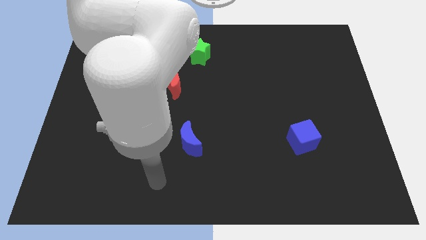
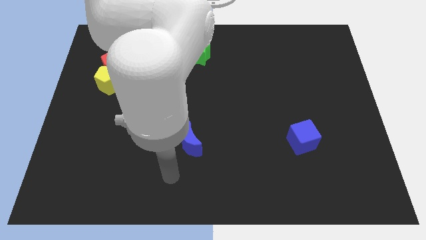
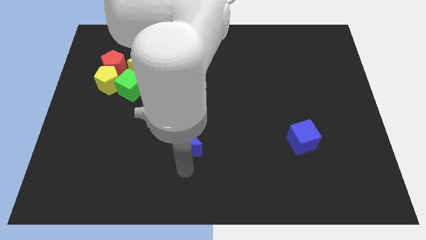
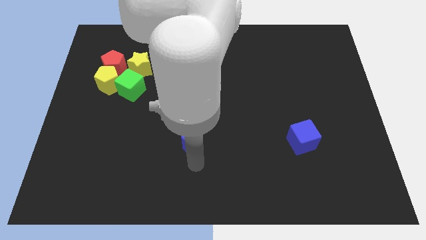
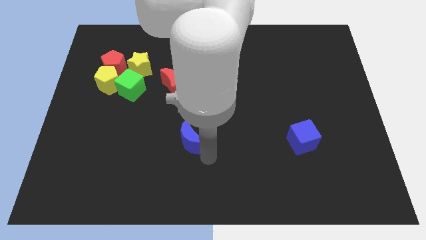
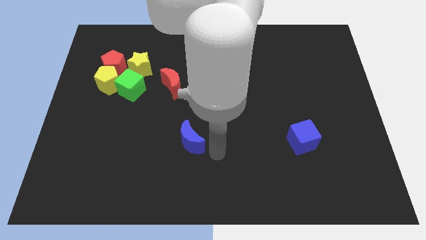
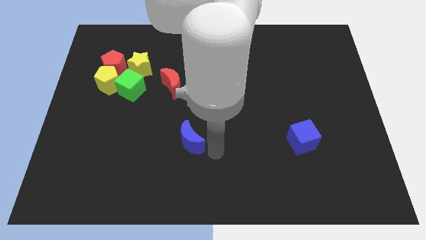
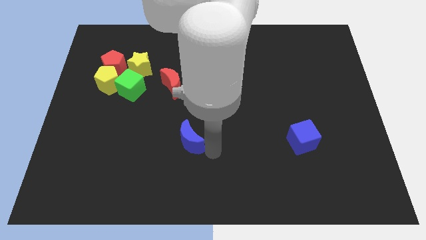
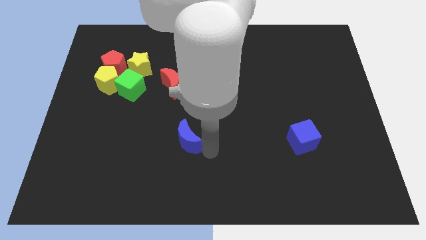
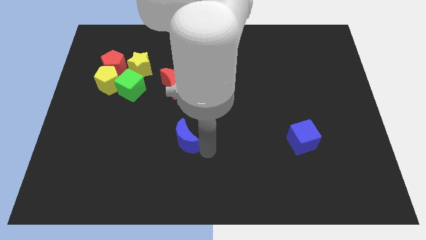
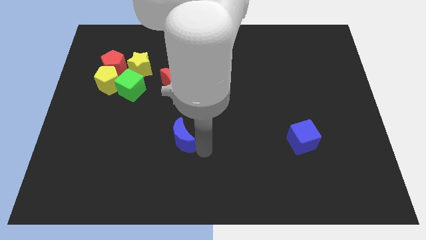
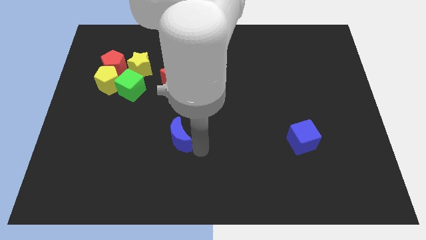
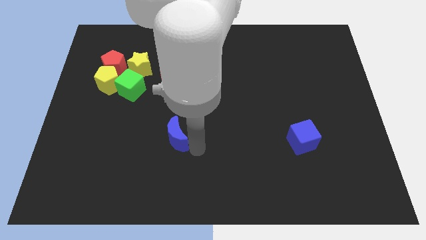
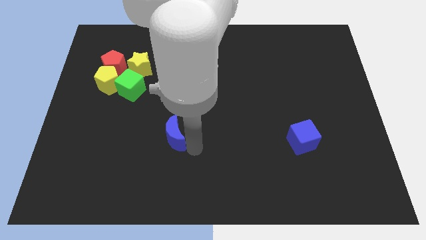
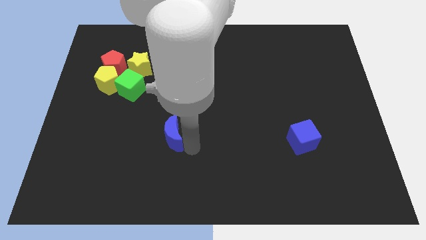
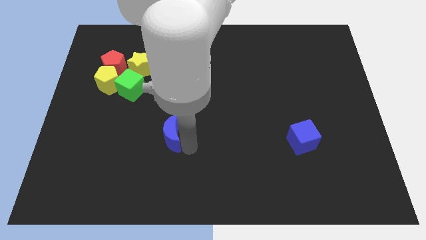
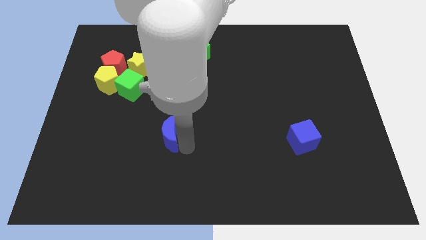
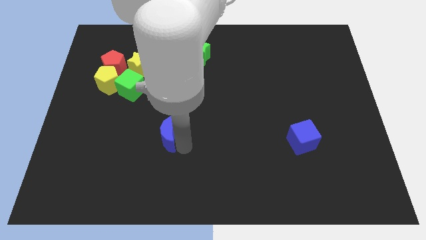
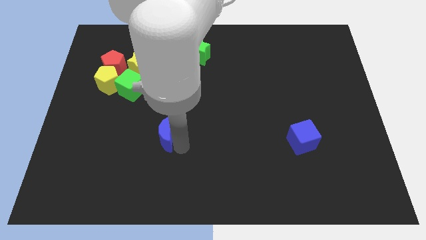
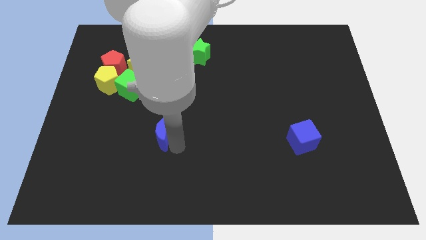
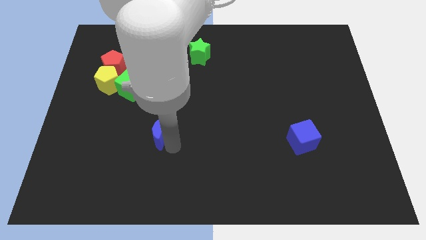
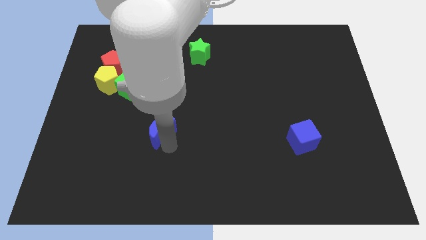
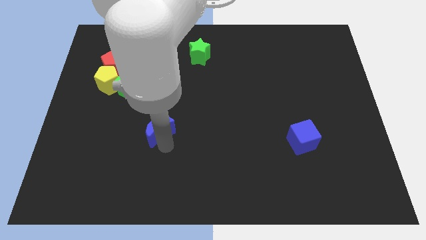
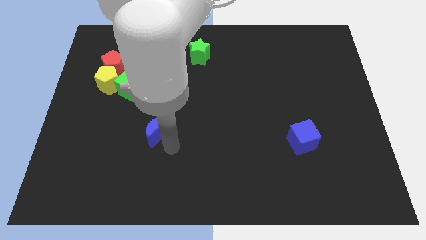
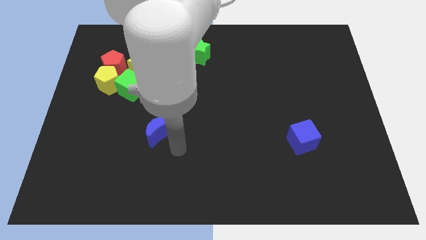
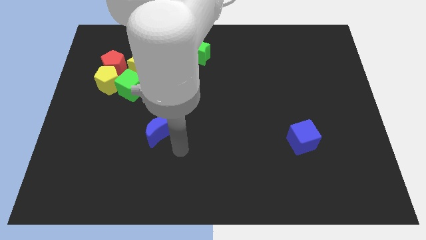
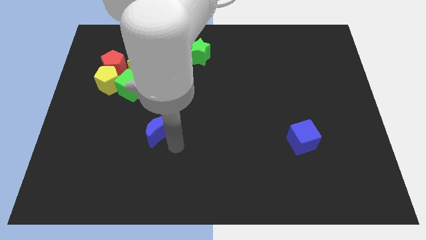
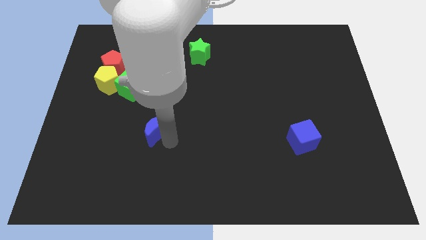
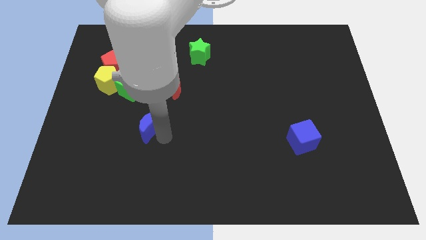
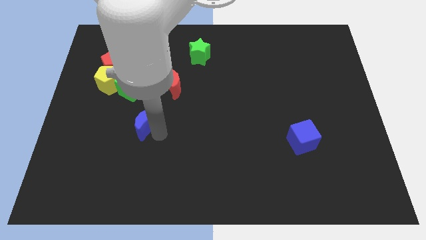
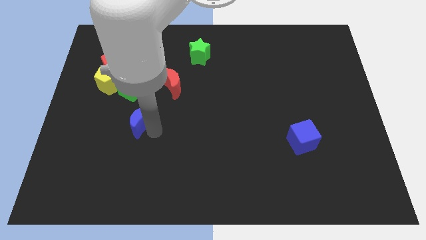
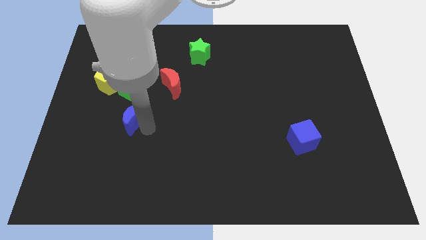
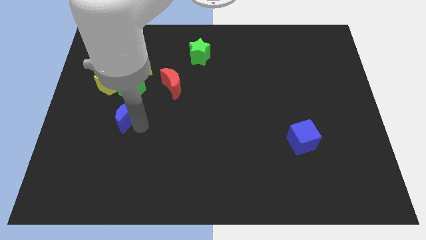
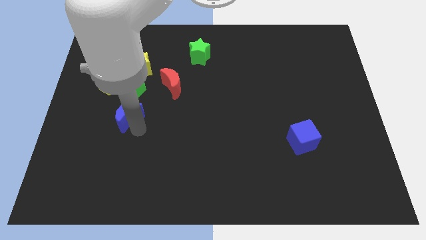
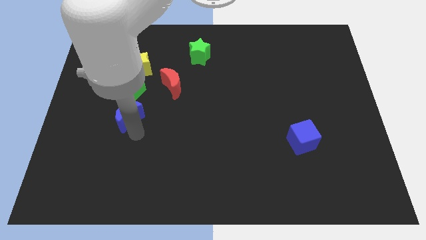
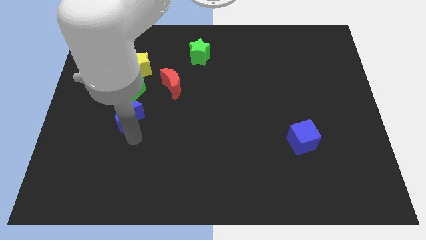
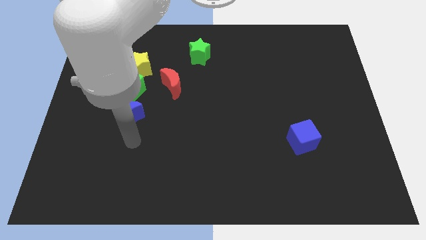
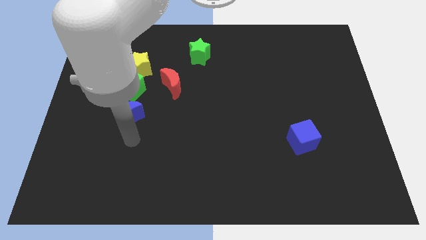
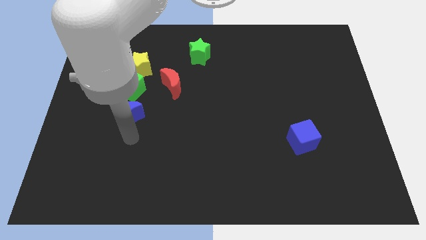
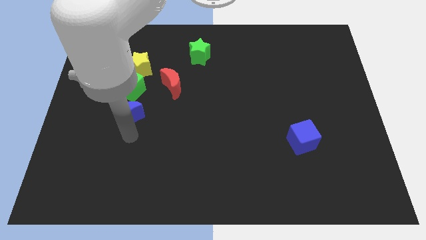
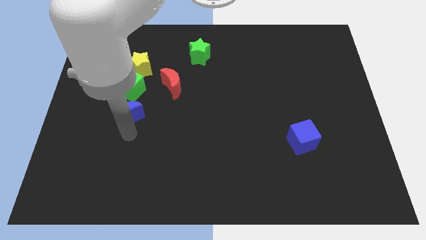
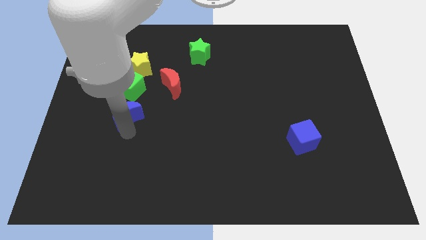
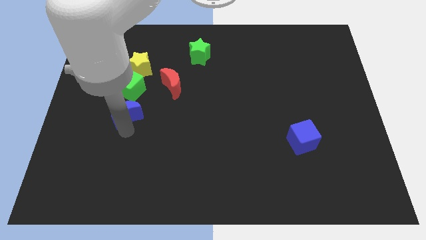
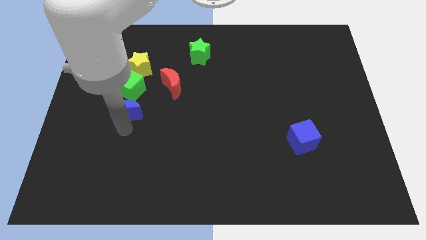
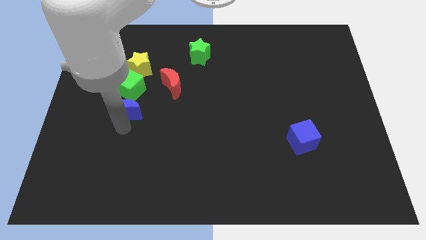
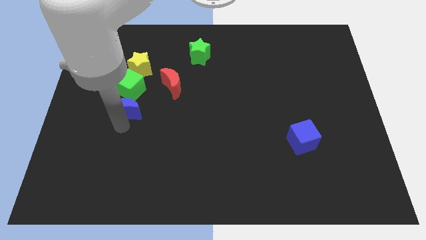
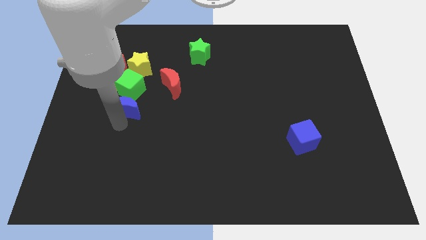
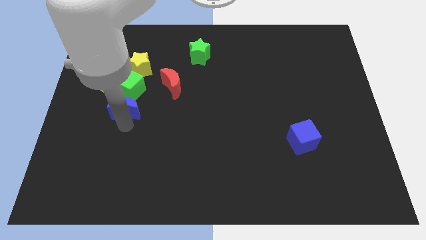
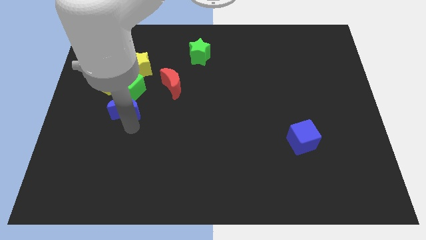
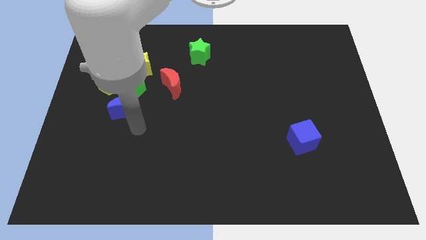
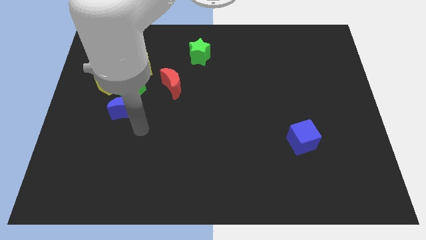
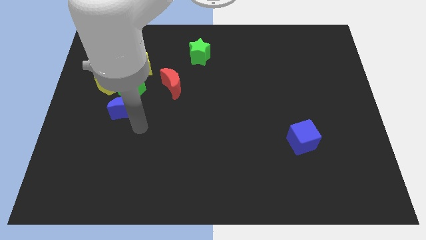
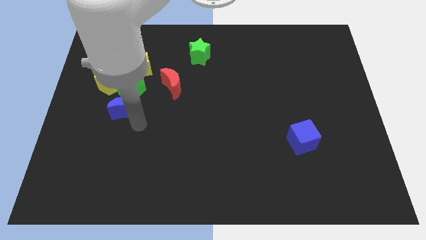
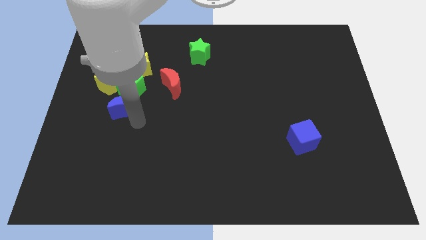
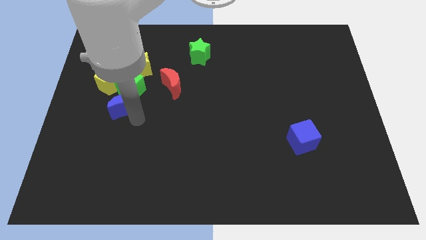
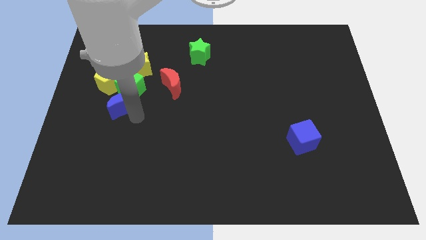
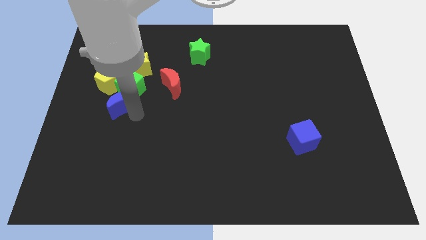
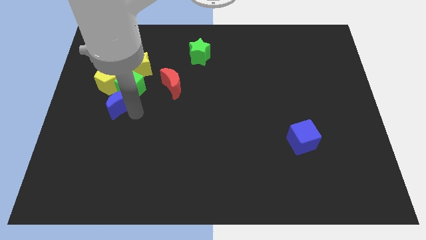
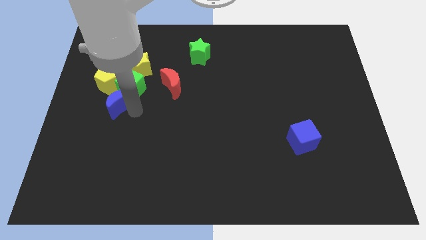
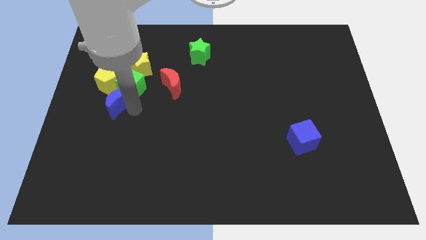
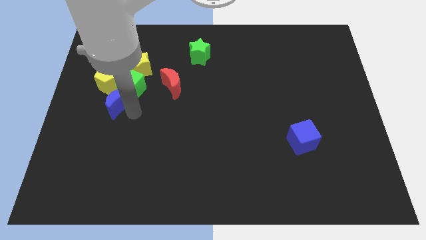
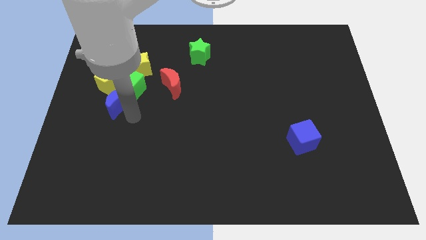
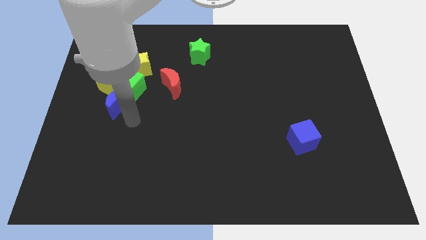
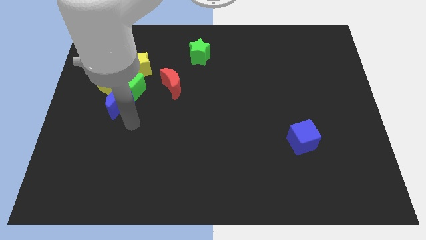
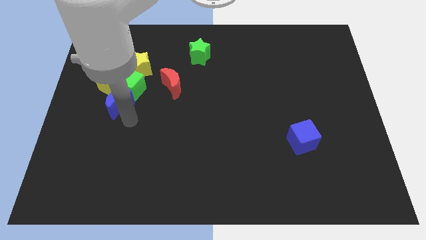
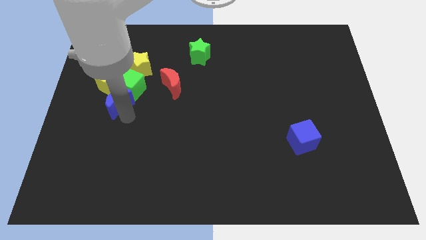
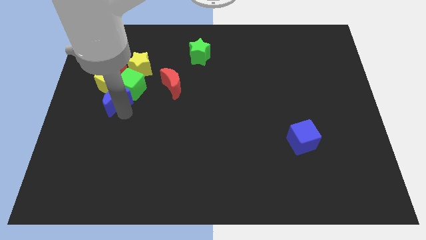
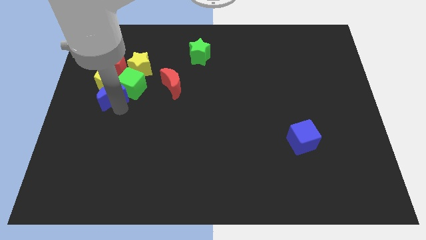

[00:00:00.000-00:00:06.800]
push the blue moon next to the yellow pentagon

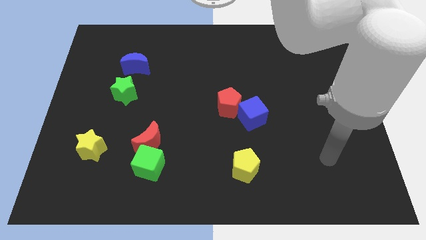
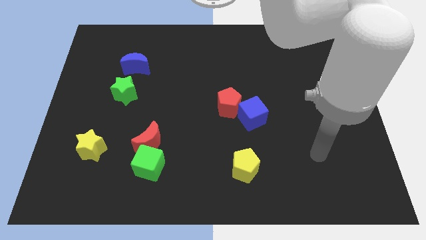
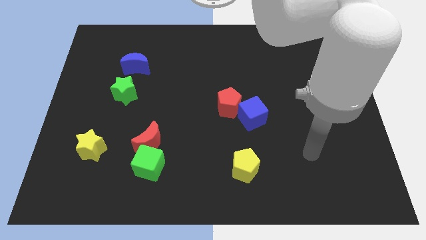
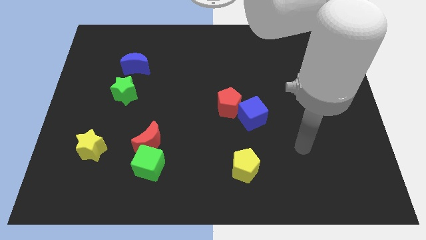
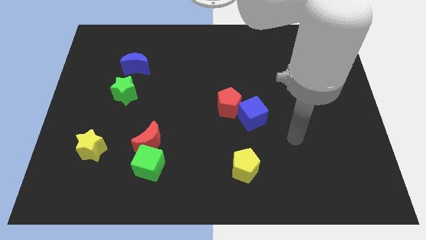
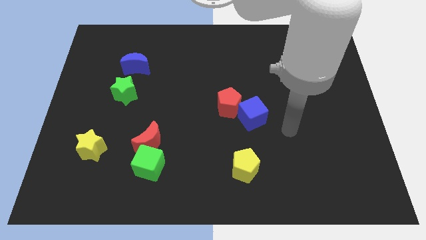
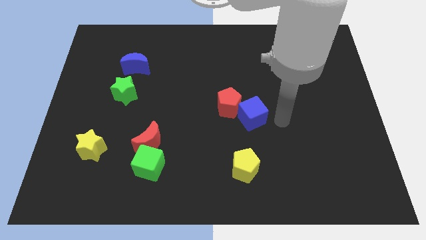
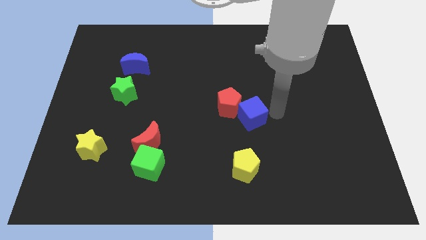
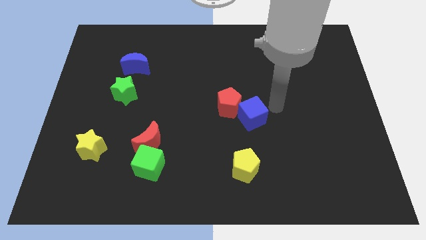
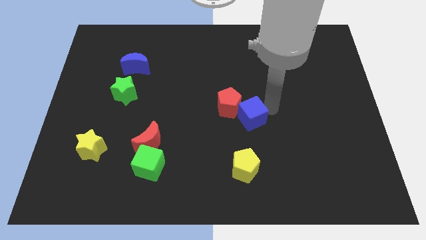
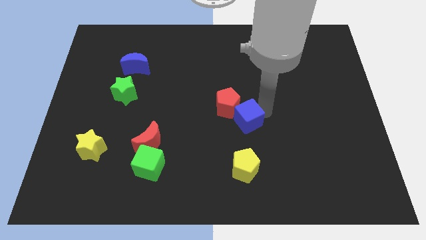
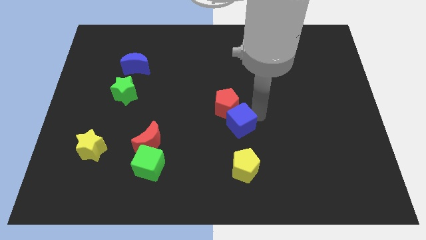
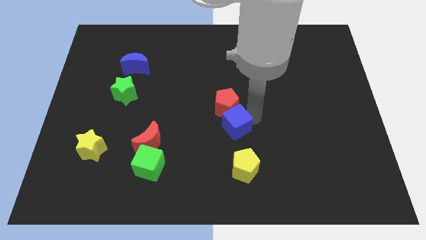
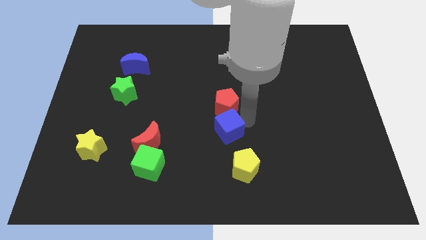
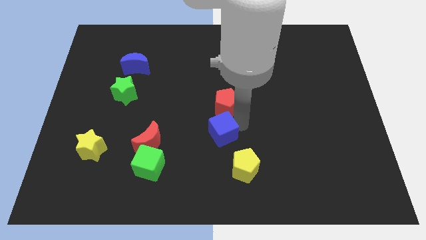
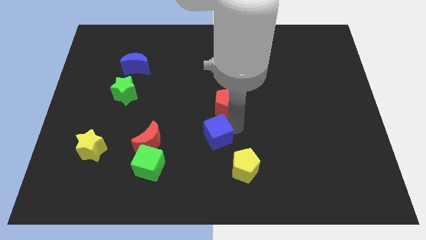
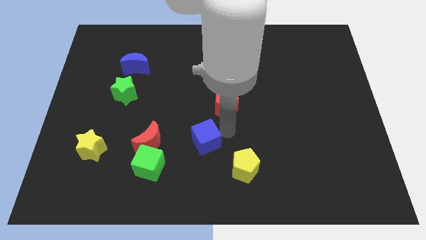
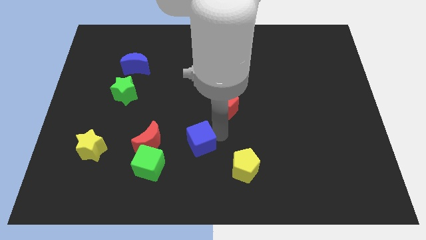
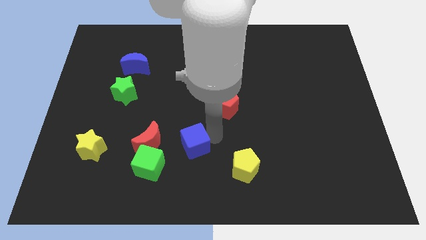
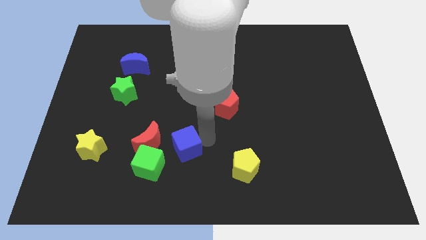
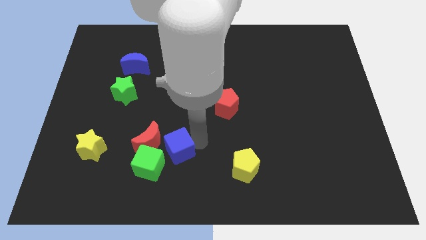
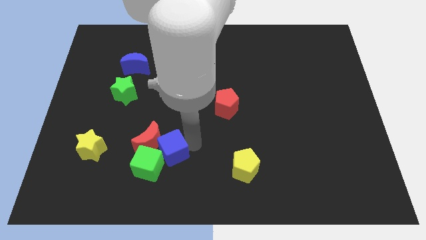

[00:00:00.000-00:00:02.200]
push the blue cube towards the green cube
